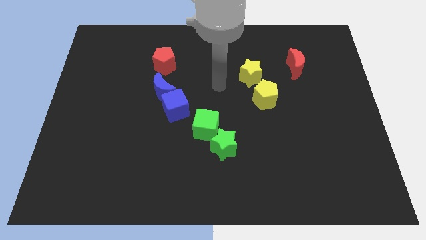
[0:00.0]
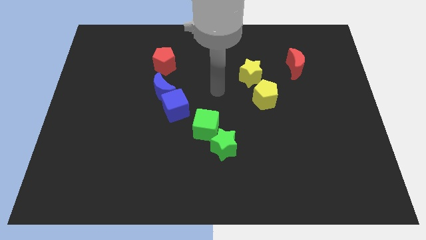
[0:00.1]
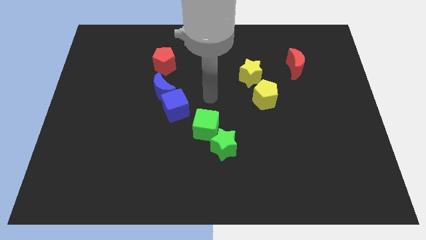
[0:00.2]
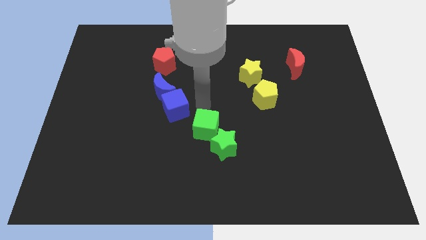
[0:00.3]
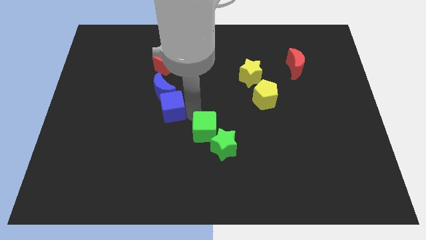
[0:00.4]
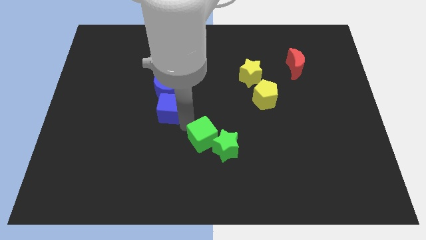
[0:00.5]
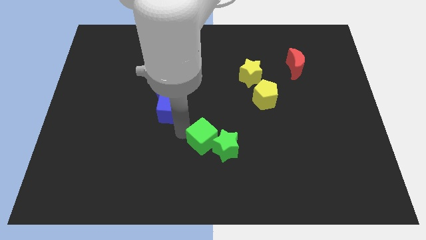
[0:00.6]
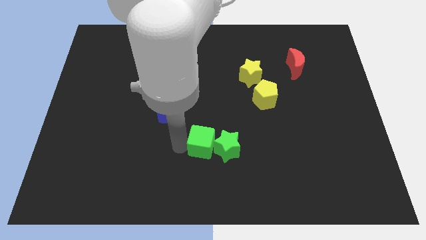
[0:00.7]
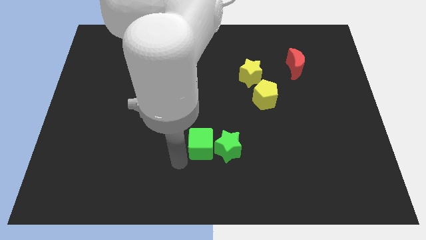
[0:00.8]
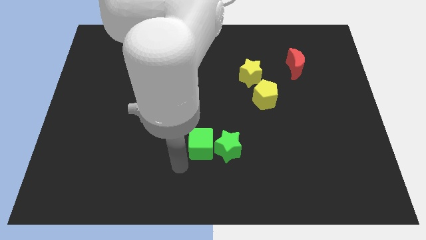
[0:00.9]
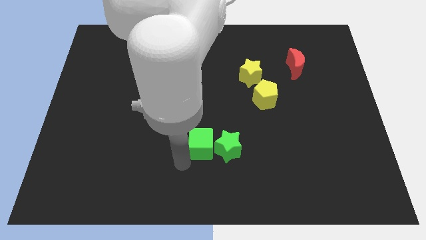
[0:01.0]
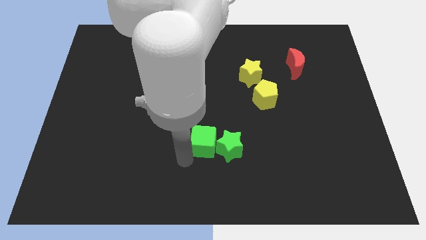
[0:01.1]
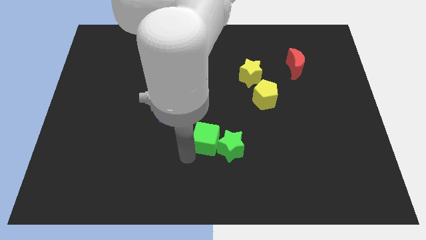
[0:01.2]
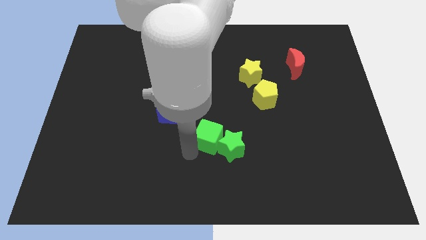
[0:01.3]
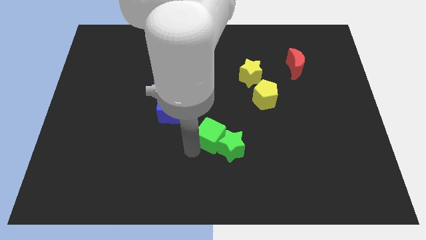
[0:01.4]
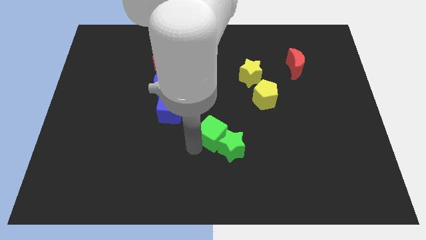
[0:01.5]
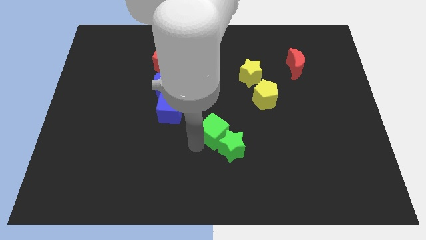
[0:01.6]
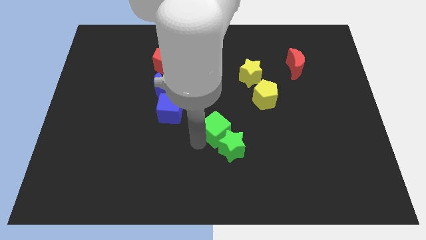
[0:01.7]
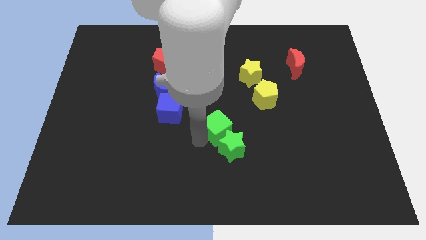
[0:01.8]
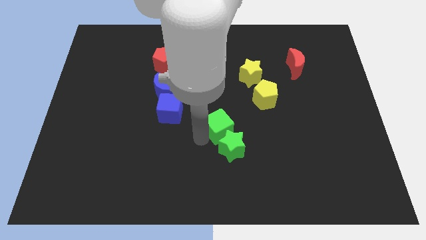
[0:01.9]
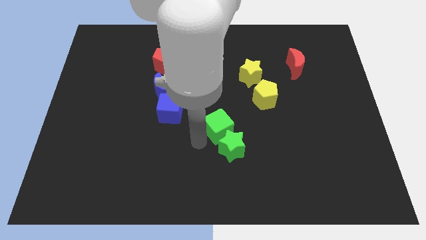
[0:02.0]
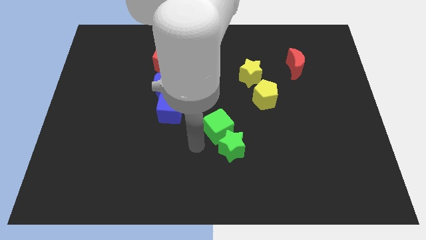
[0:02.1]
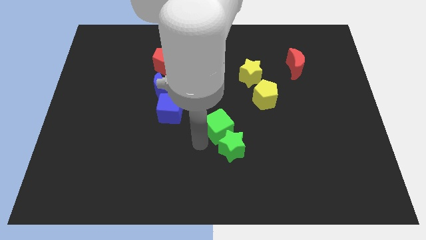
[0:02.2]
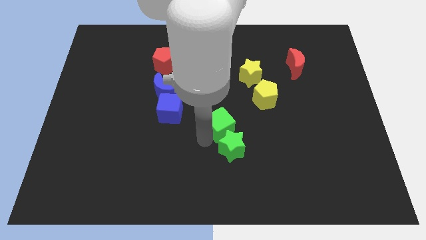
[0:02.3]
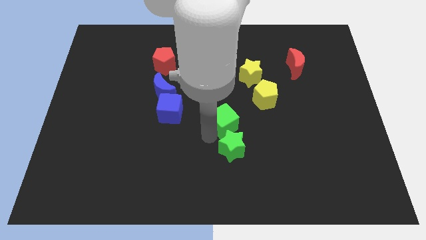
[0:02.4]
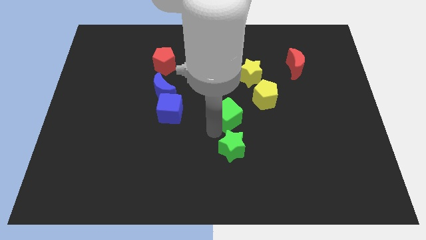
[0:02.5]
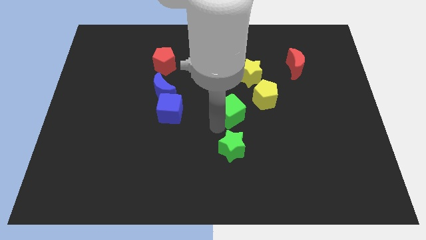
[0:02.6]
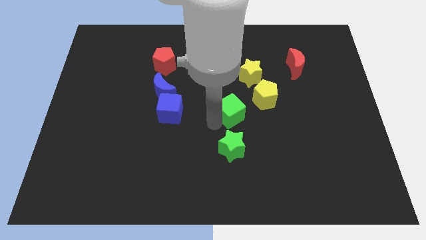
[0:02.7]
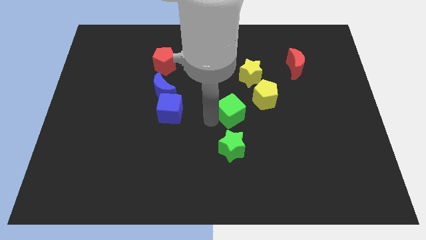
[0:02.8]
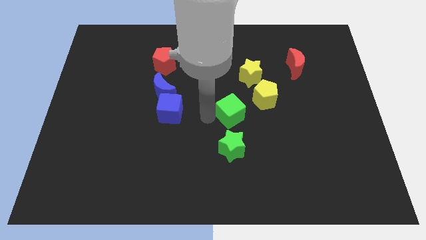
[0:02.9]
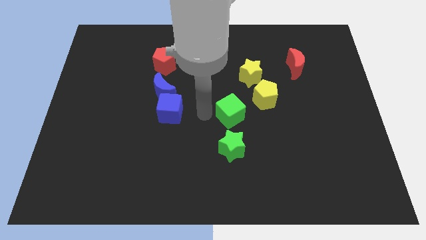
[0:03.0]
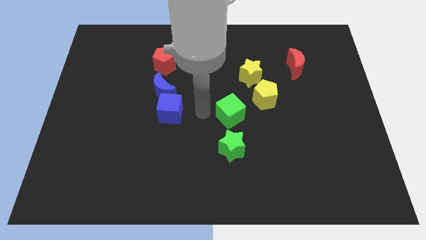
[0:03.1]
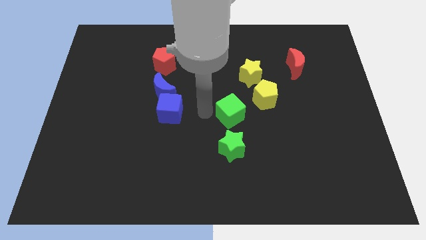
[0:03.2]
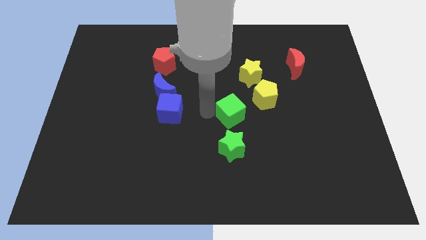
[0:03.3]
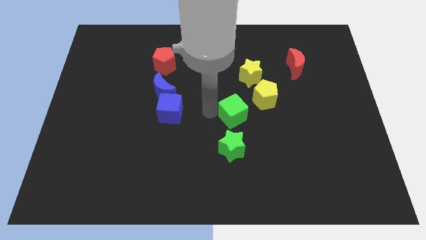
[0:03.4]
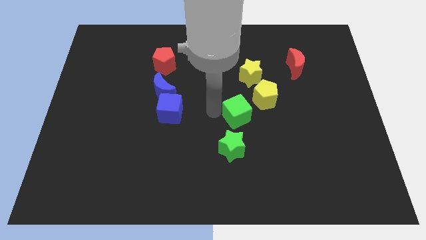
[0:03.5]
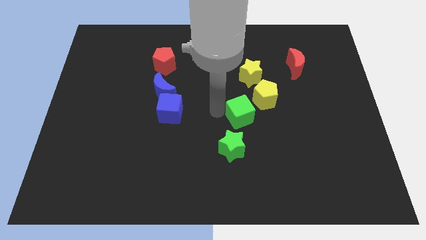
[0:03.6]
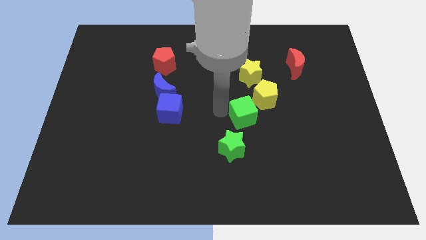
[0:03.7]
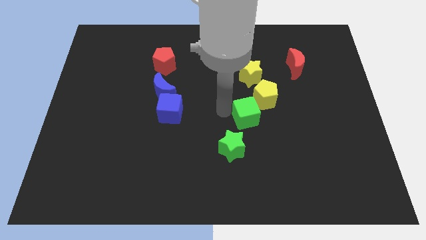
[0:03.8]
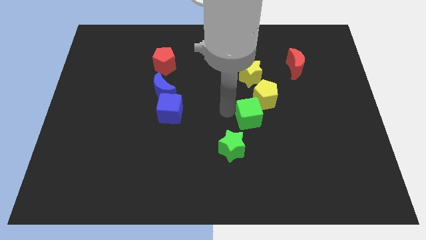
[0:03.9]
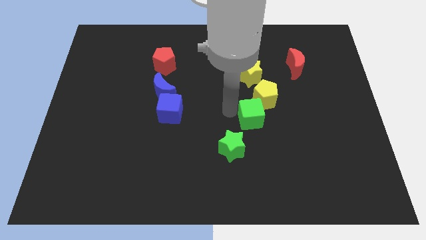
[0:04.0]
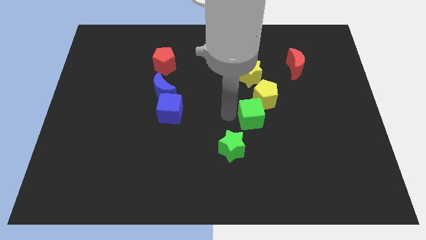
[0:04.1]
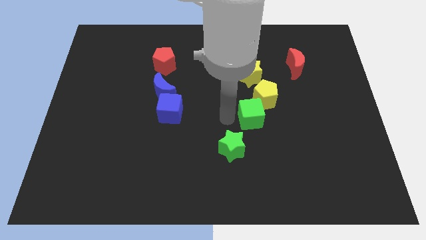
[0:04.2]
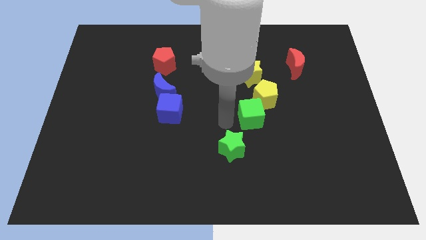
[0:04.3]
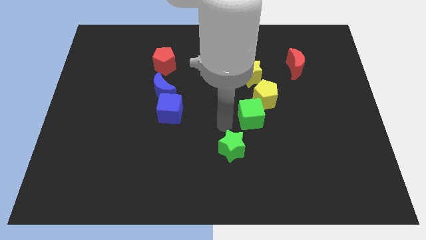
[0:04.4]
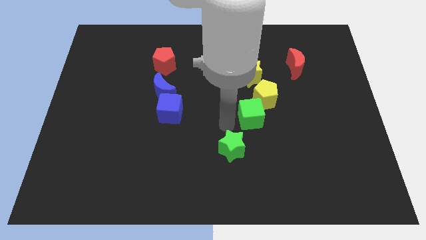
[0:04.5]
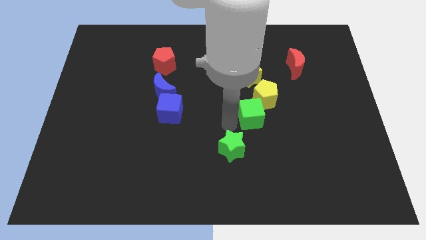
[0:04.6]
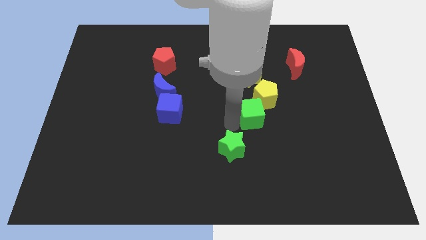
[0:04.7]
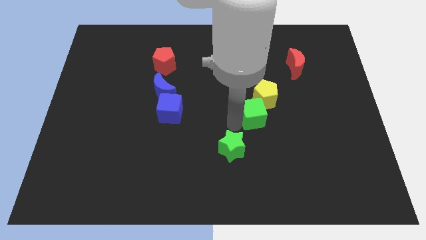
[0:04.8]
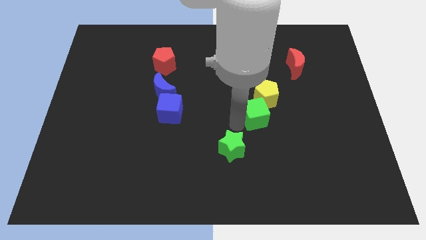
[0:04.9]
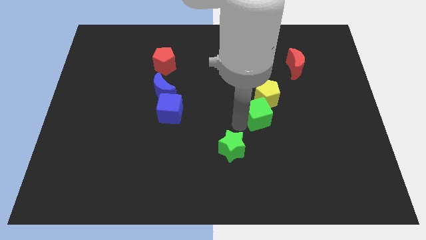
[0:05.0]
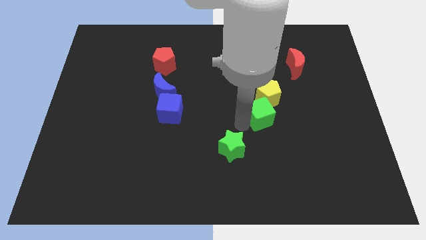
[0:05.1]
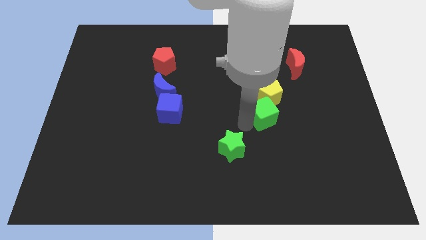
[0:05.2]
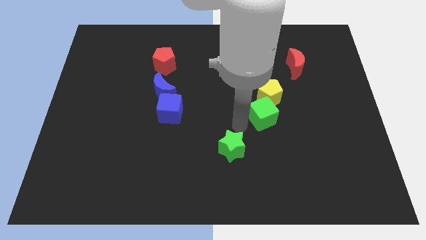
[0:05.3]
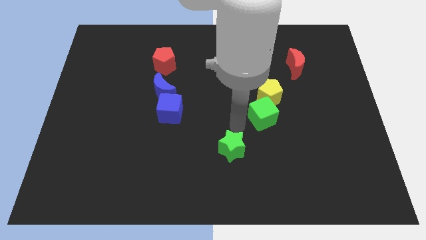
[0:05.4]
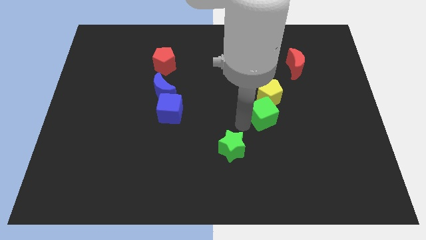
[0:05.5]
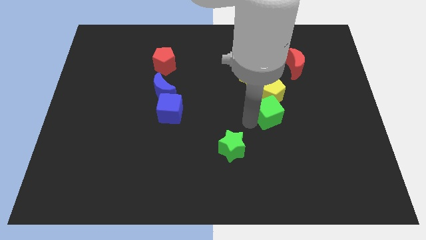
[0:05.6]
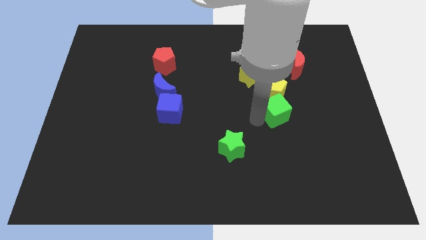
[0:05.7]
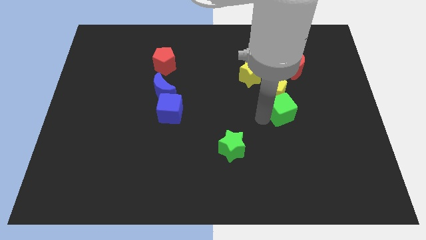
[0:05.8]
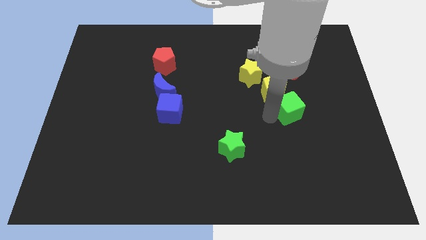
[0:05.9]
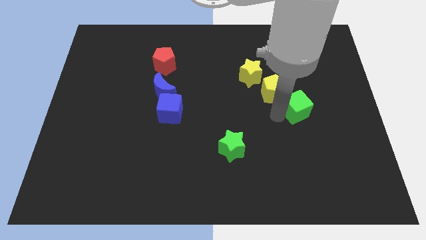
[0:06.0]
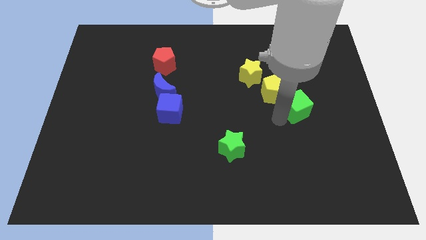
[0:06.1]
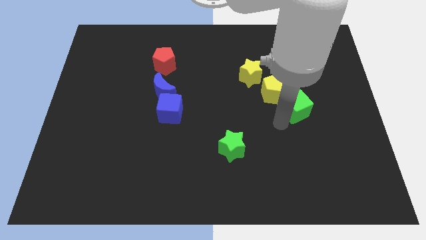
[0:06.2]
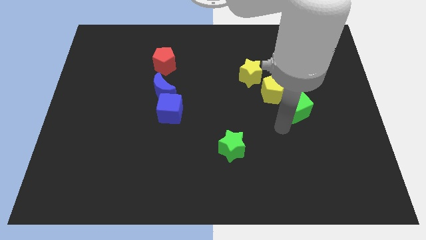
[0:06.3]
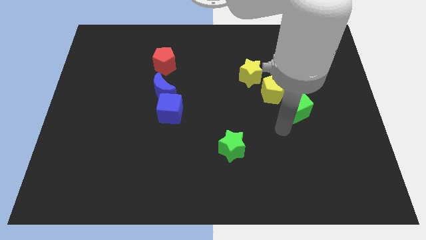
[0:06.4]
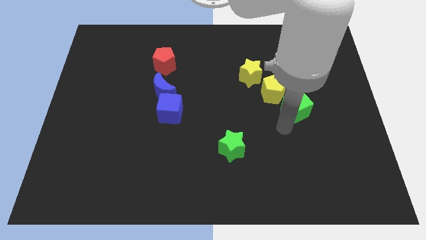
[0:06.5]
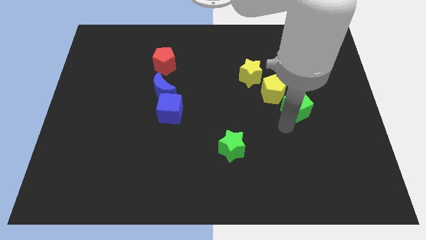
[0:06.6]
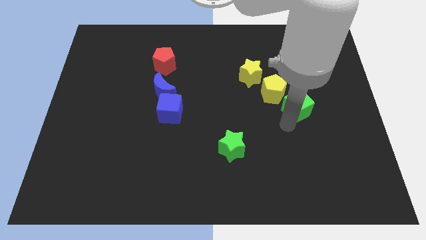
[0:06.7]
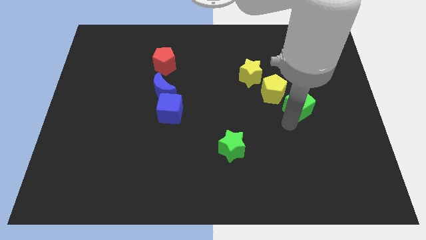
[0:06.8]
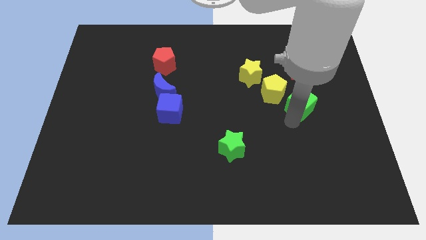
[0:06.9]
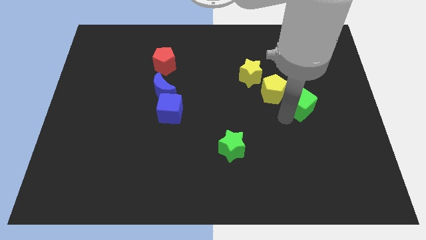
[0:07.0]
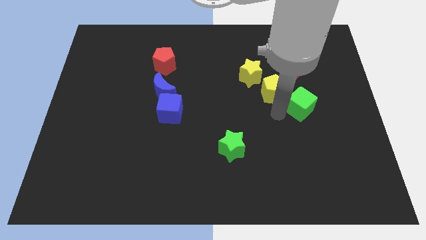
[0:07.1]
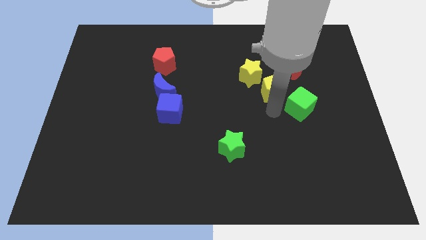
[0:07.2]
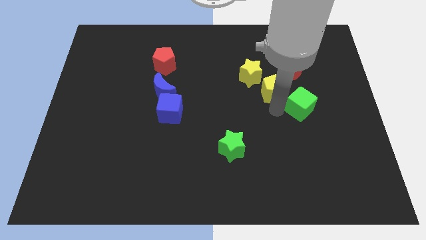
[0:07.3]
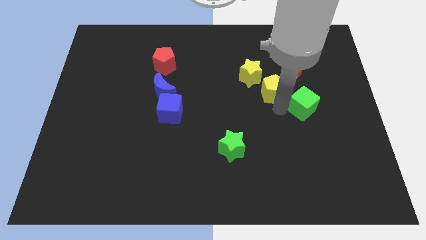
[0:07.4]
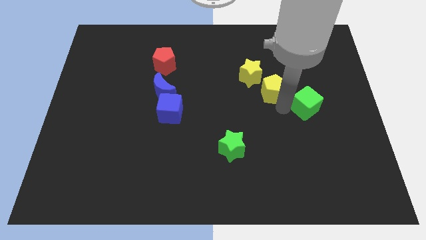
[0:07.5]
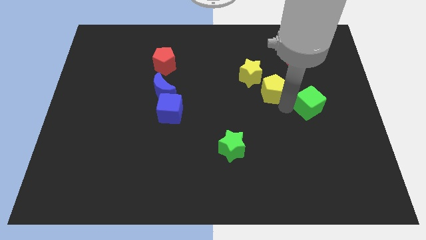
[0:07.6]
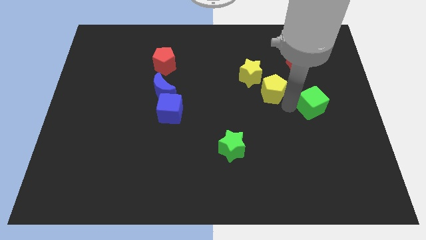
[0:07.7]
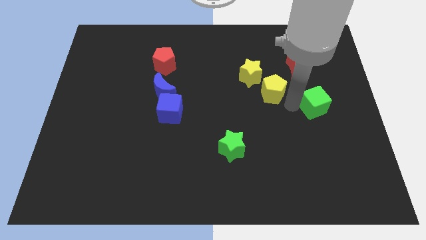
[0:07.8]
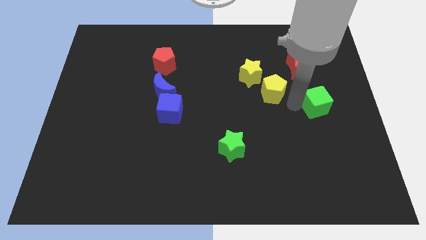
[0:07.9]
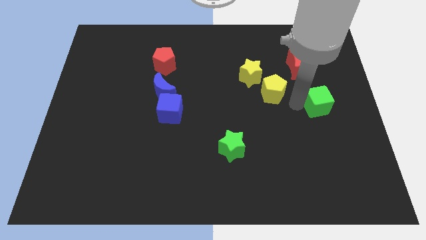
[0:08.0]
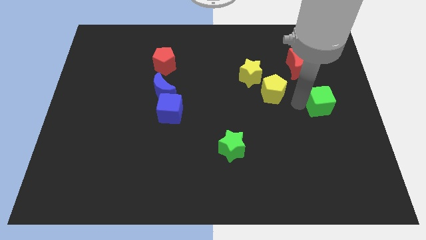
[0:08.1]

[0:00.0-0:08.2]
push the green cube to the center right
